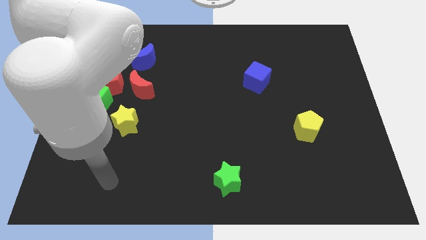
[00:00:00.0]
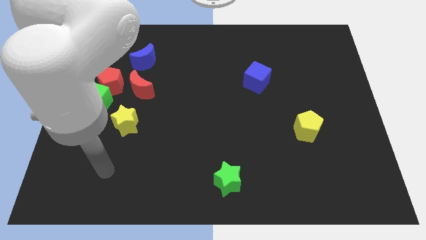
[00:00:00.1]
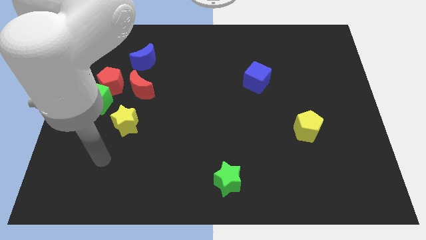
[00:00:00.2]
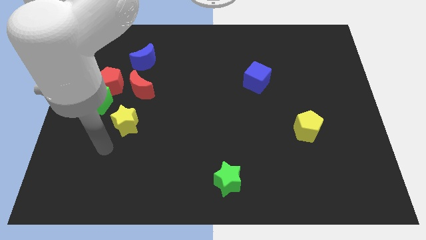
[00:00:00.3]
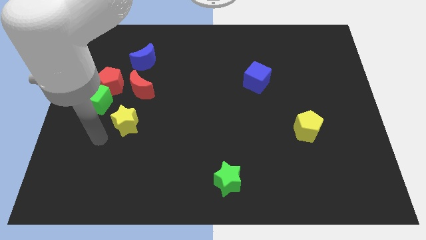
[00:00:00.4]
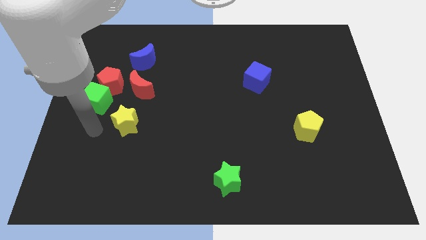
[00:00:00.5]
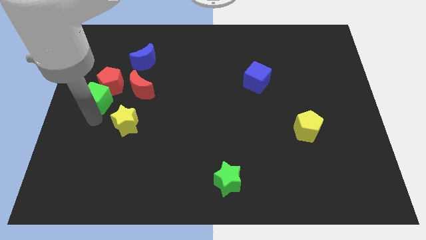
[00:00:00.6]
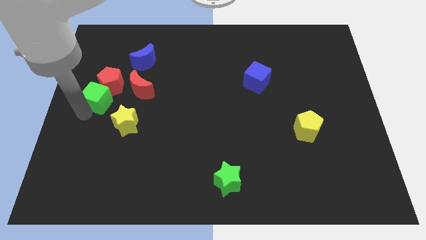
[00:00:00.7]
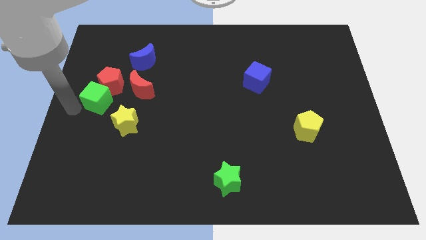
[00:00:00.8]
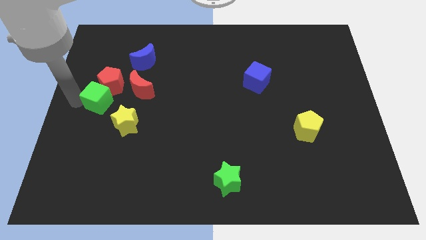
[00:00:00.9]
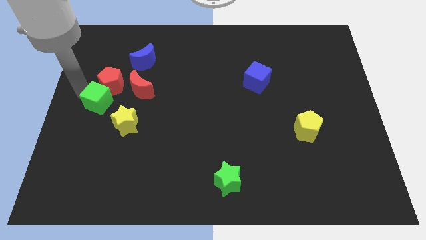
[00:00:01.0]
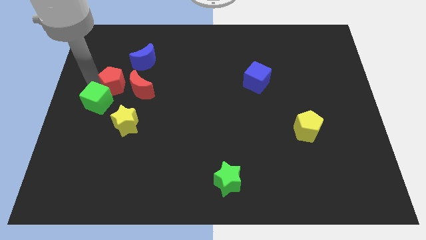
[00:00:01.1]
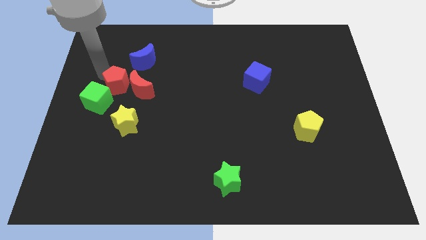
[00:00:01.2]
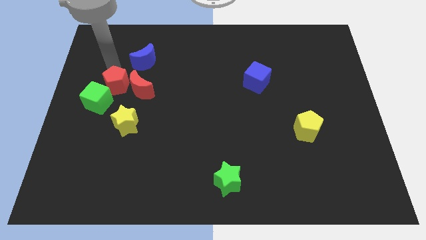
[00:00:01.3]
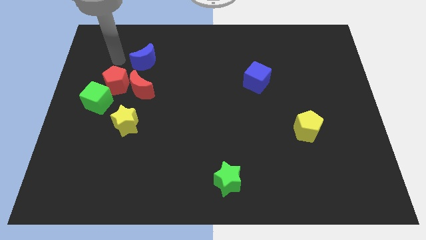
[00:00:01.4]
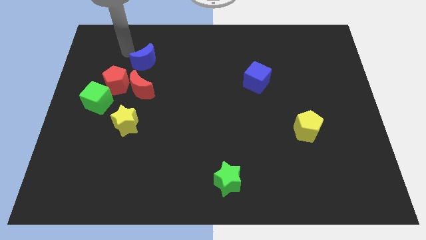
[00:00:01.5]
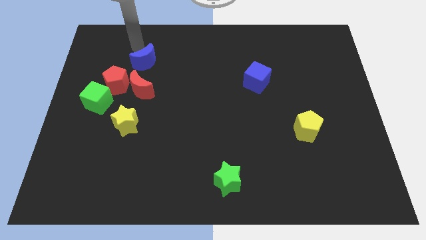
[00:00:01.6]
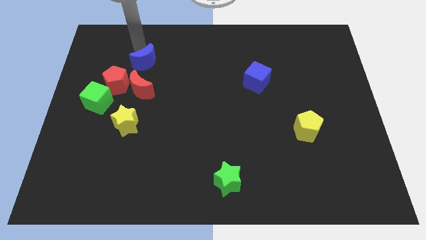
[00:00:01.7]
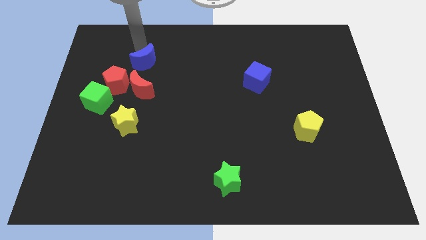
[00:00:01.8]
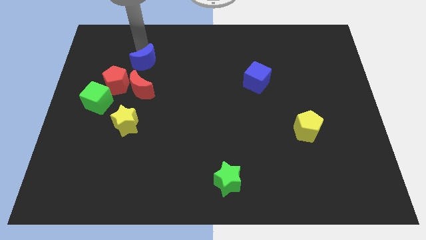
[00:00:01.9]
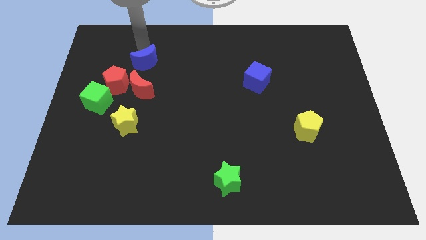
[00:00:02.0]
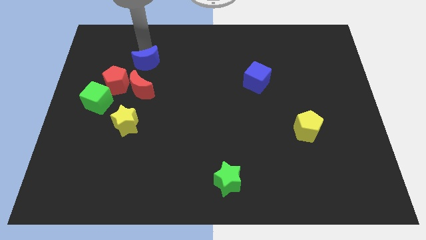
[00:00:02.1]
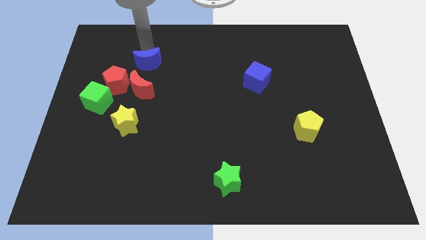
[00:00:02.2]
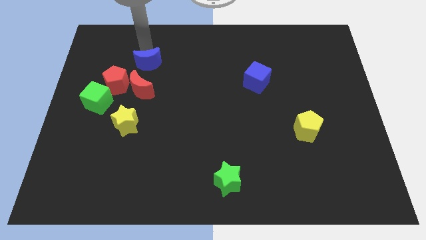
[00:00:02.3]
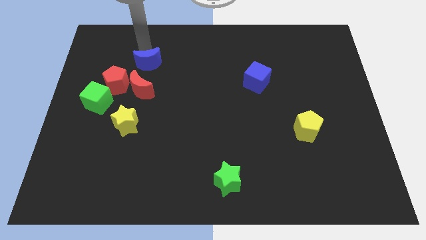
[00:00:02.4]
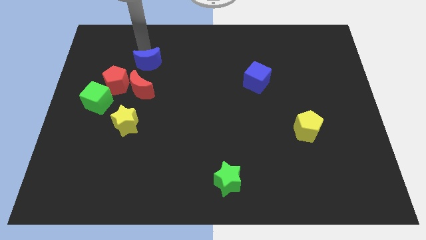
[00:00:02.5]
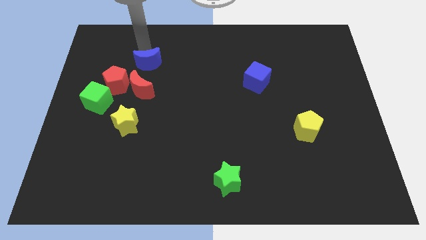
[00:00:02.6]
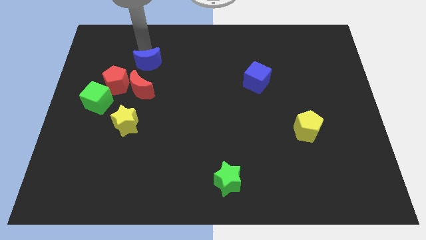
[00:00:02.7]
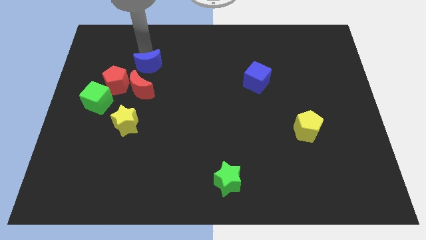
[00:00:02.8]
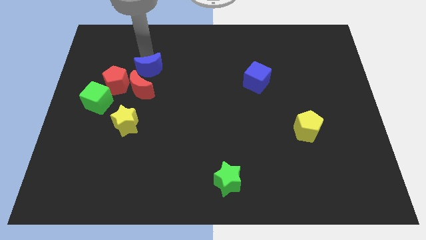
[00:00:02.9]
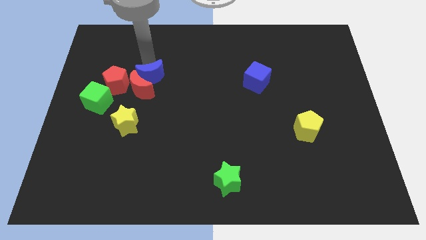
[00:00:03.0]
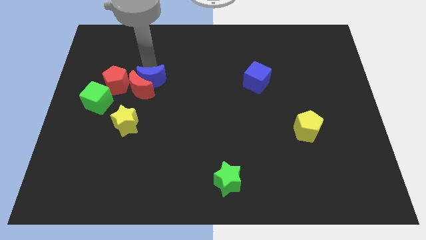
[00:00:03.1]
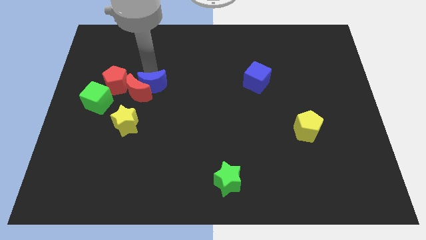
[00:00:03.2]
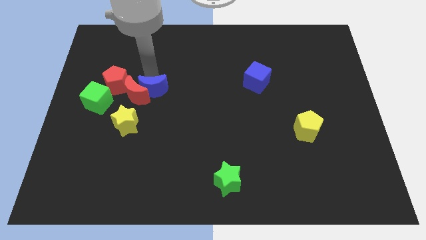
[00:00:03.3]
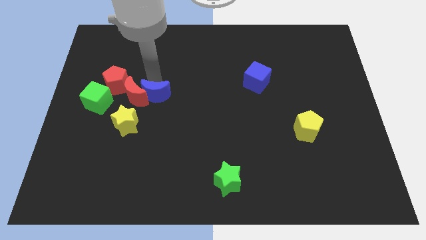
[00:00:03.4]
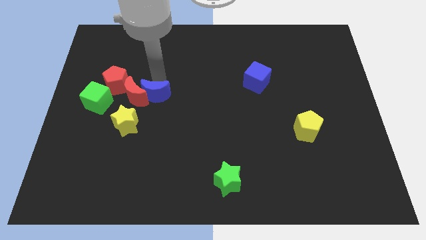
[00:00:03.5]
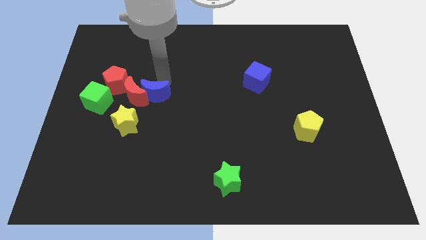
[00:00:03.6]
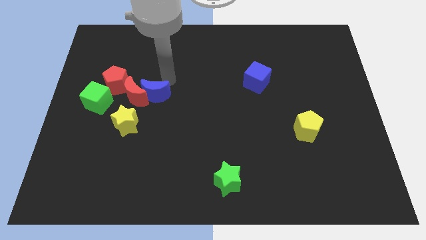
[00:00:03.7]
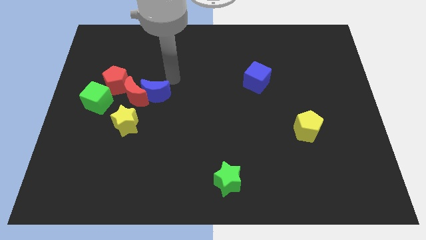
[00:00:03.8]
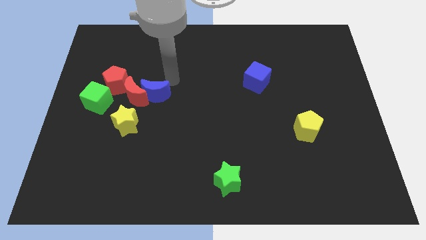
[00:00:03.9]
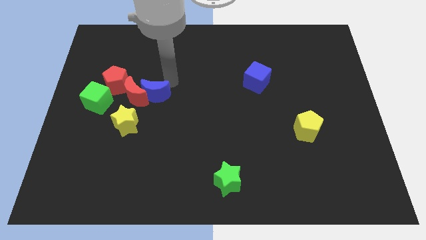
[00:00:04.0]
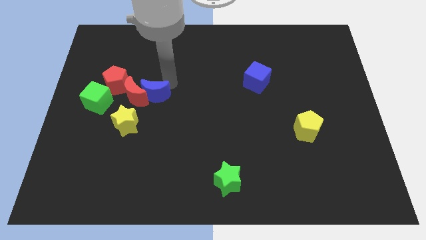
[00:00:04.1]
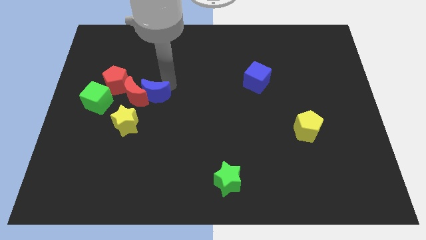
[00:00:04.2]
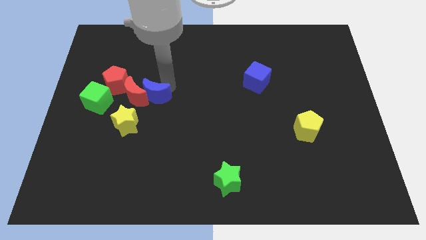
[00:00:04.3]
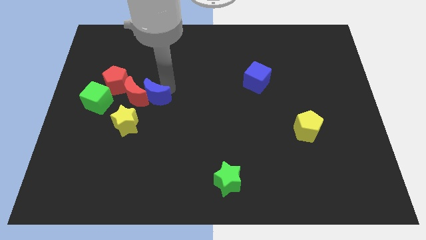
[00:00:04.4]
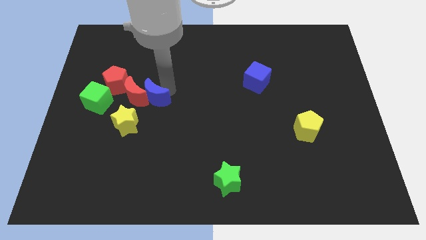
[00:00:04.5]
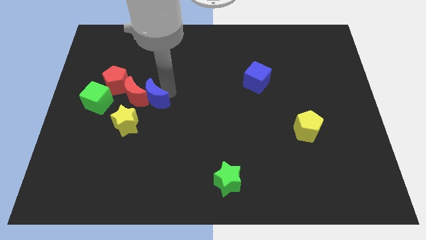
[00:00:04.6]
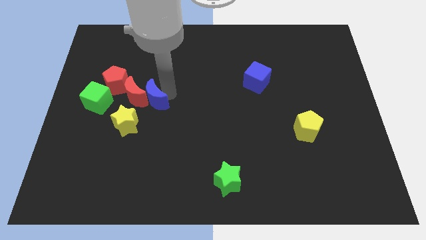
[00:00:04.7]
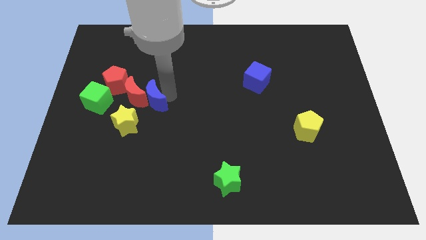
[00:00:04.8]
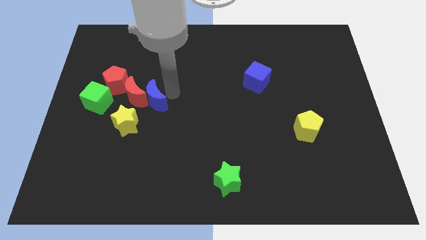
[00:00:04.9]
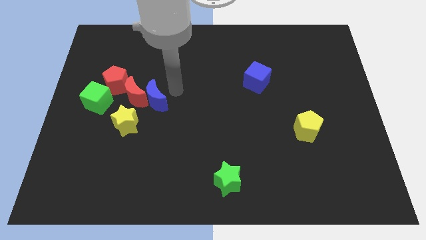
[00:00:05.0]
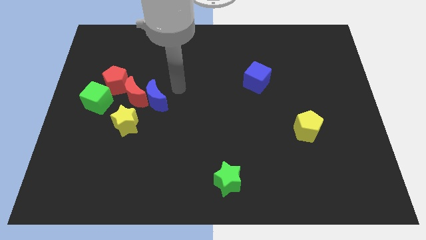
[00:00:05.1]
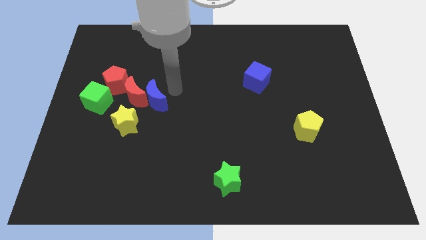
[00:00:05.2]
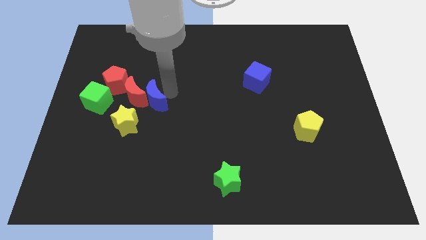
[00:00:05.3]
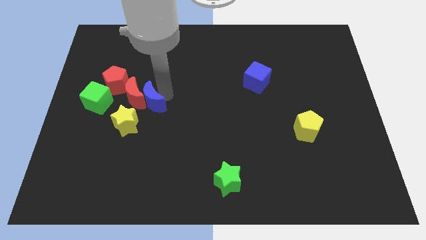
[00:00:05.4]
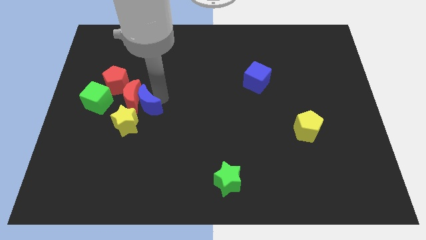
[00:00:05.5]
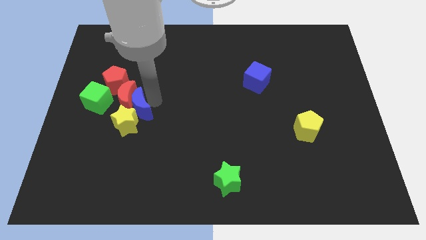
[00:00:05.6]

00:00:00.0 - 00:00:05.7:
put the blue moon to the yellow star

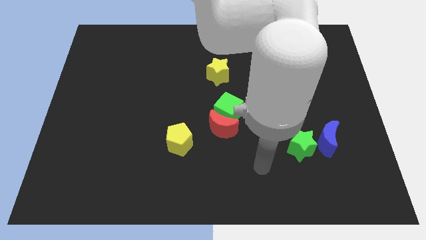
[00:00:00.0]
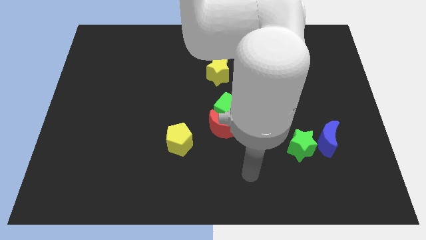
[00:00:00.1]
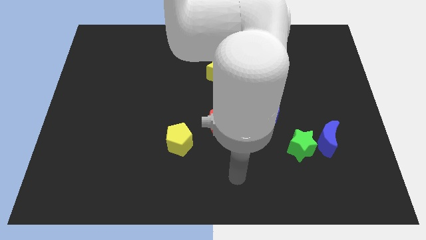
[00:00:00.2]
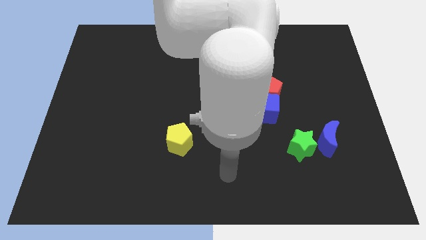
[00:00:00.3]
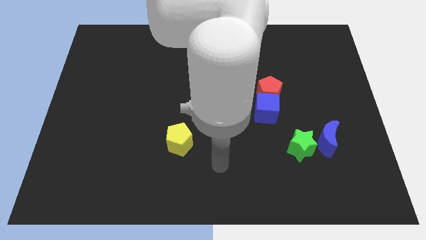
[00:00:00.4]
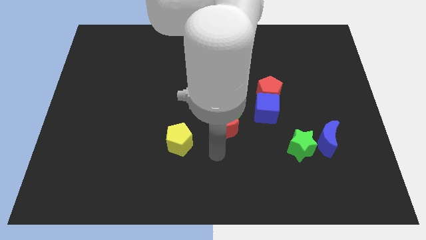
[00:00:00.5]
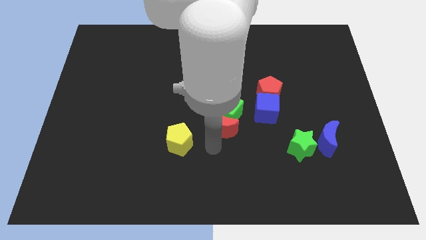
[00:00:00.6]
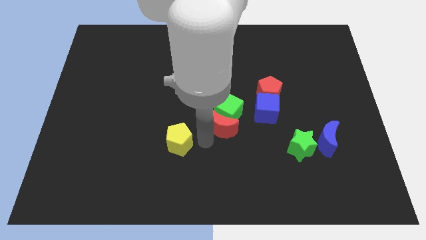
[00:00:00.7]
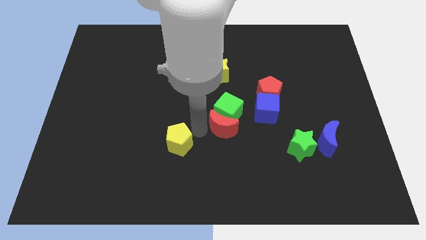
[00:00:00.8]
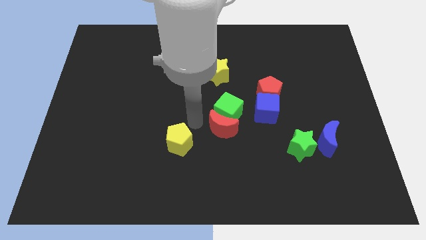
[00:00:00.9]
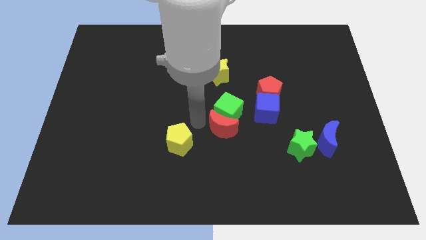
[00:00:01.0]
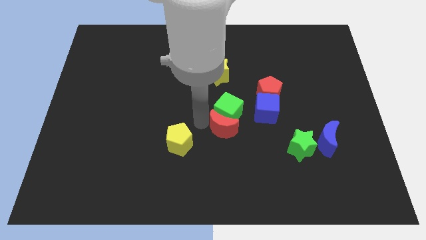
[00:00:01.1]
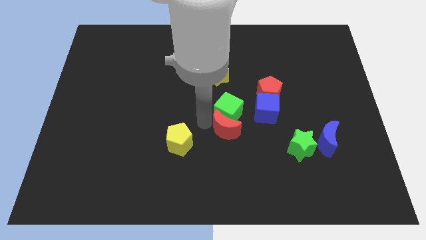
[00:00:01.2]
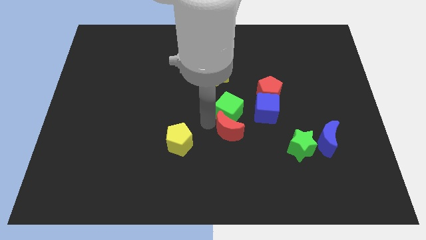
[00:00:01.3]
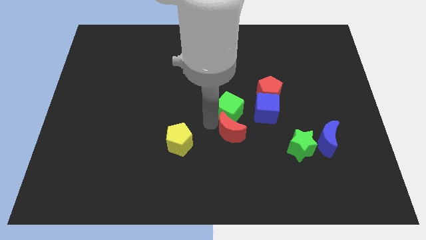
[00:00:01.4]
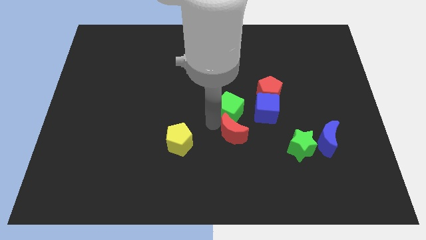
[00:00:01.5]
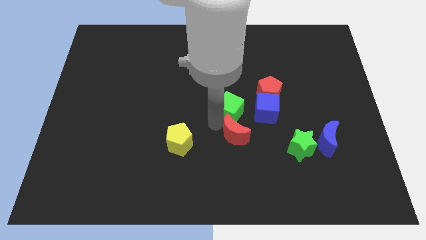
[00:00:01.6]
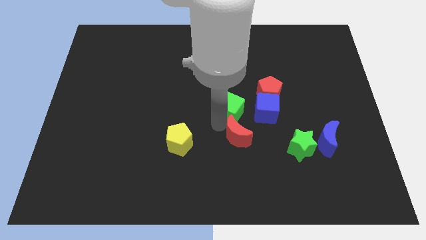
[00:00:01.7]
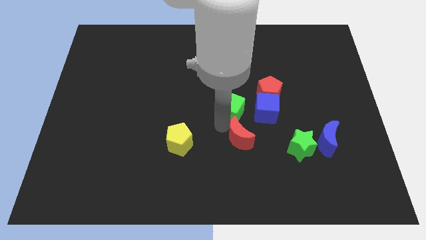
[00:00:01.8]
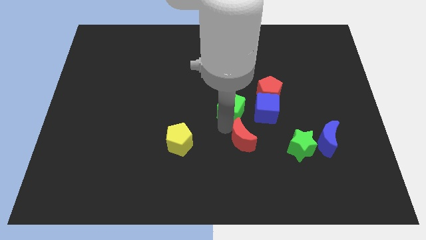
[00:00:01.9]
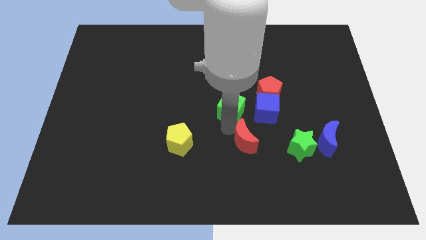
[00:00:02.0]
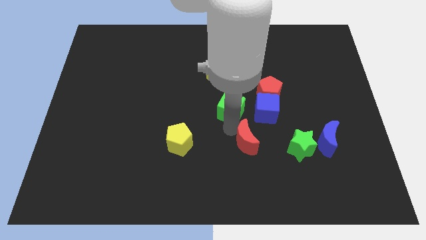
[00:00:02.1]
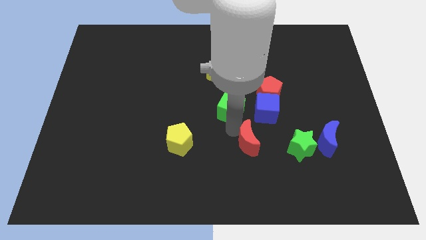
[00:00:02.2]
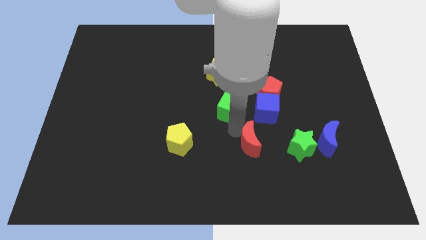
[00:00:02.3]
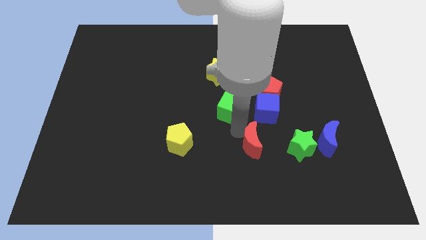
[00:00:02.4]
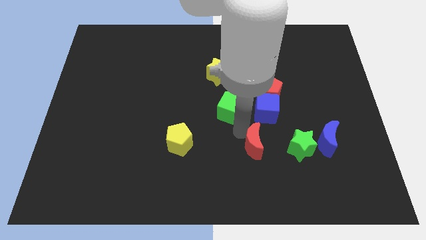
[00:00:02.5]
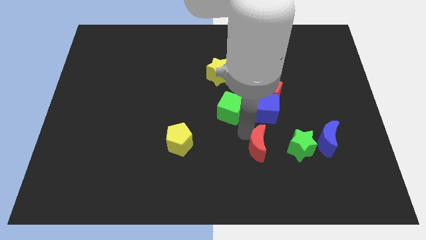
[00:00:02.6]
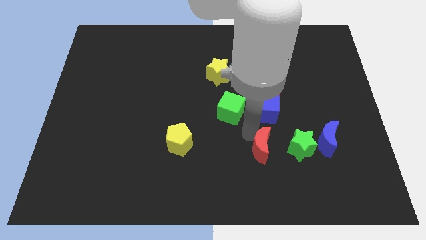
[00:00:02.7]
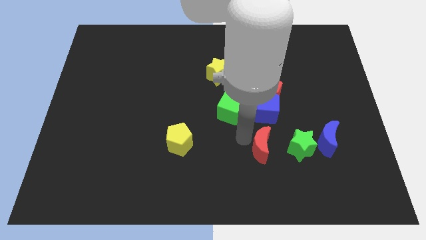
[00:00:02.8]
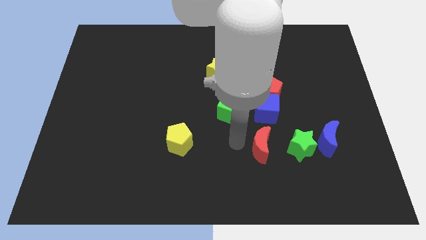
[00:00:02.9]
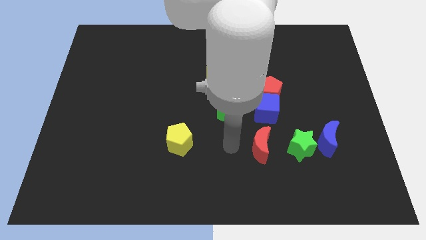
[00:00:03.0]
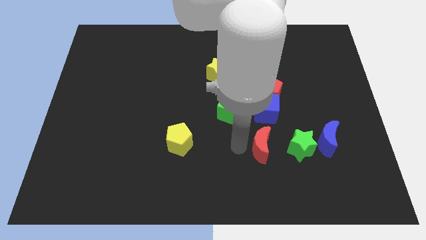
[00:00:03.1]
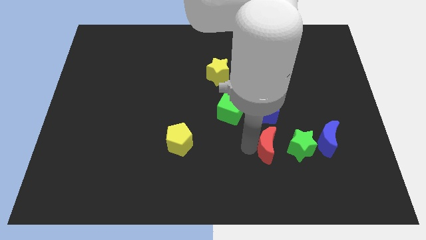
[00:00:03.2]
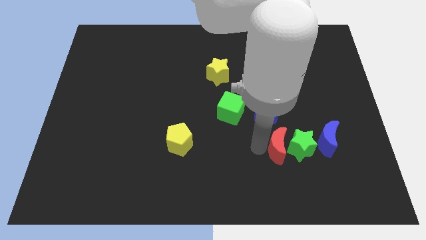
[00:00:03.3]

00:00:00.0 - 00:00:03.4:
slide the red moon next to the green star
